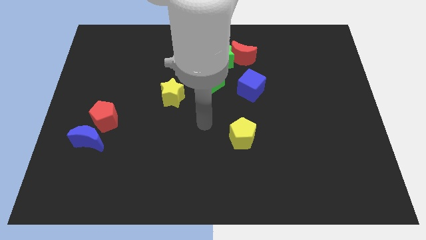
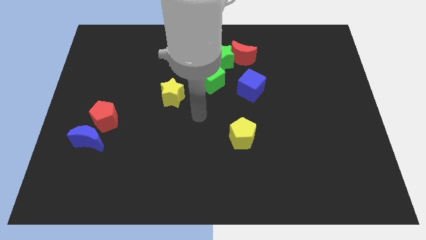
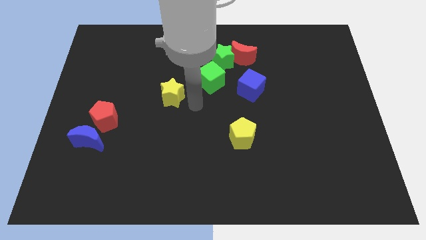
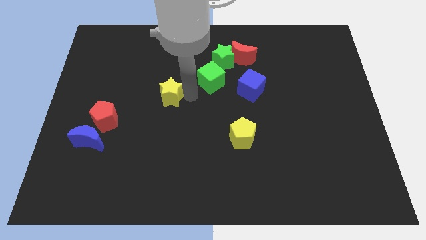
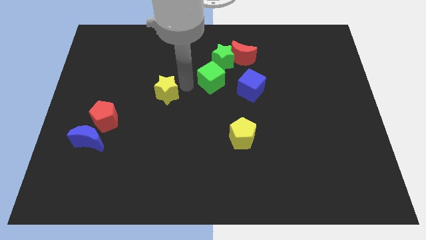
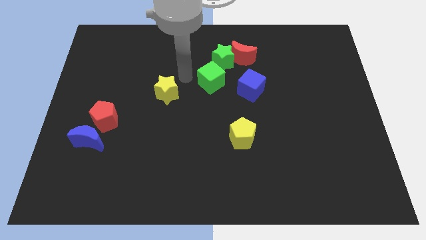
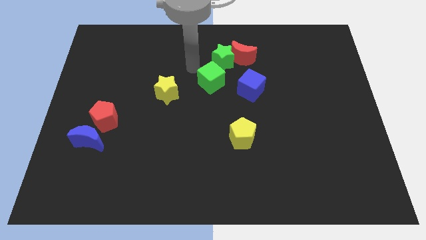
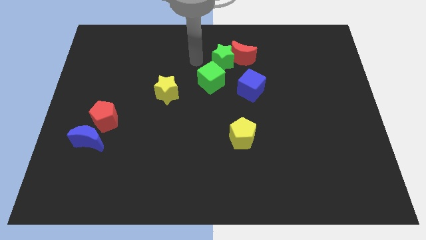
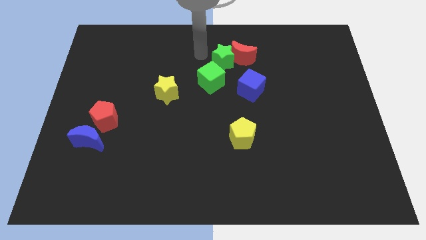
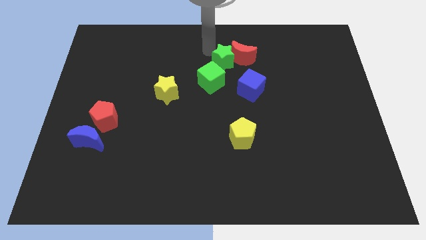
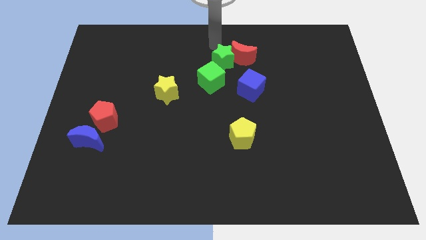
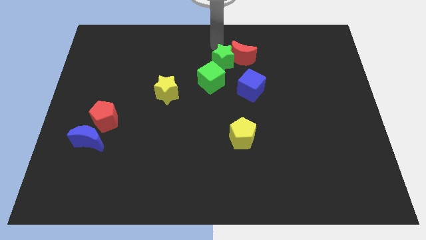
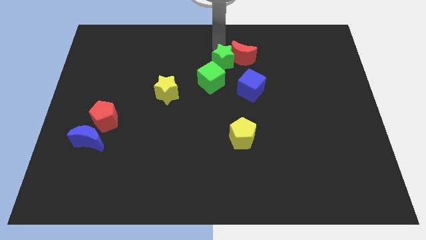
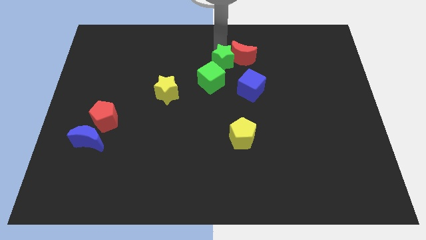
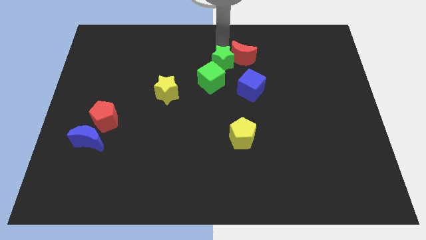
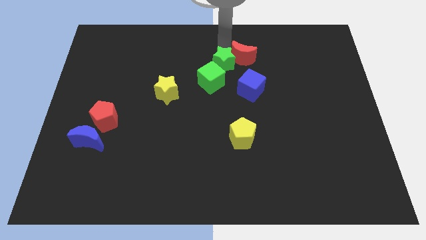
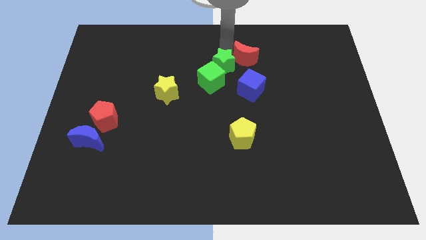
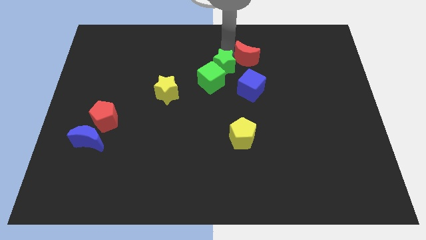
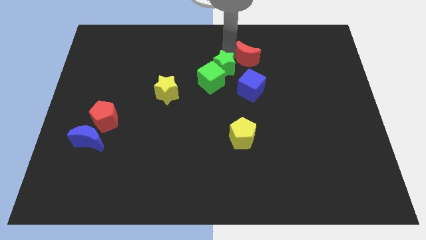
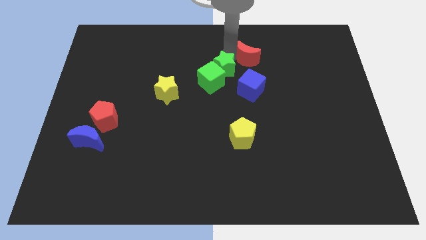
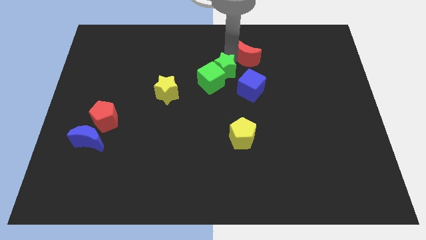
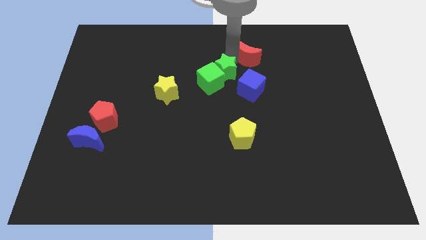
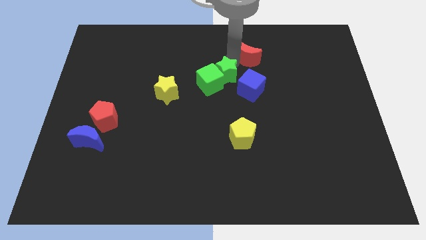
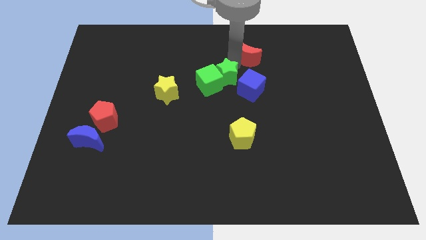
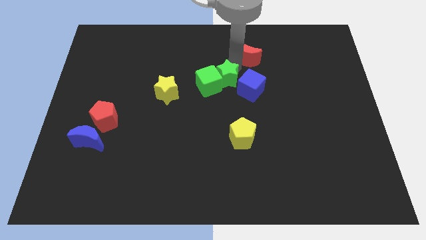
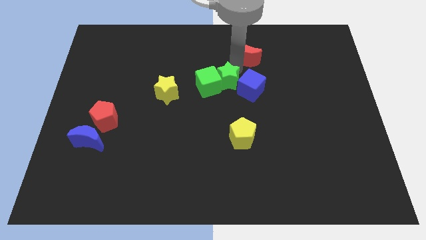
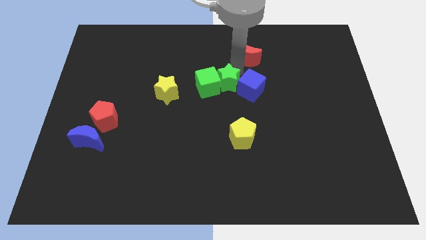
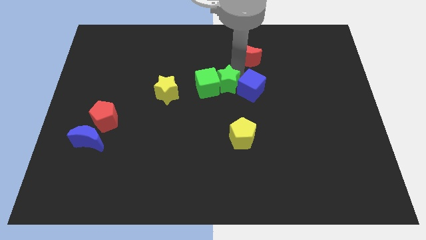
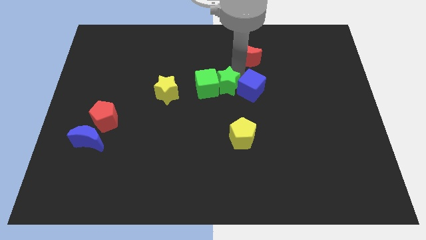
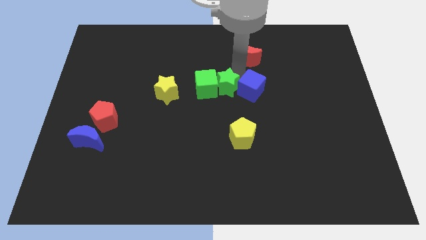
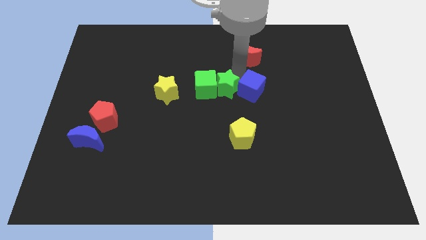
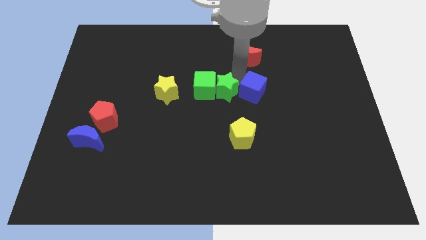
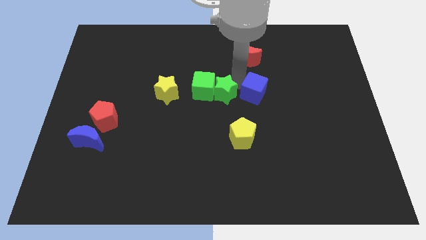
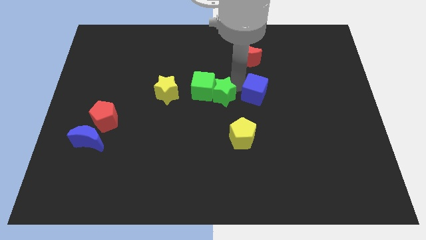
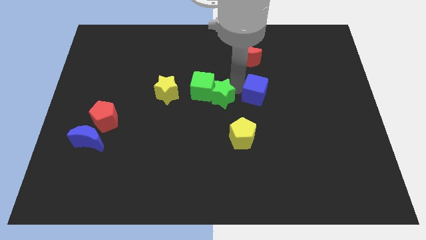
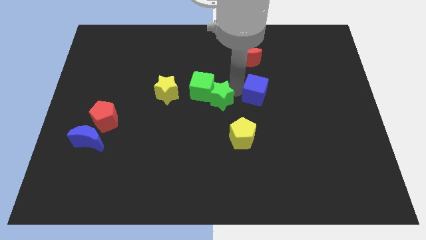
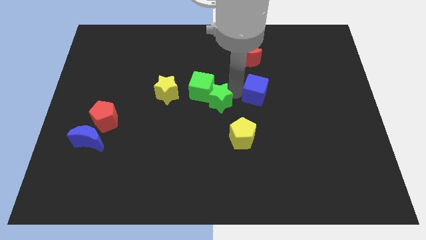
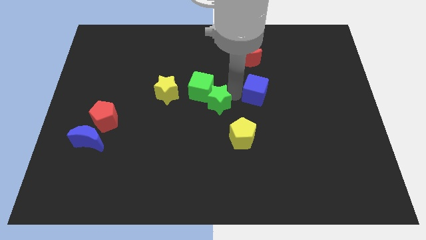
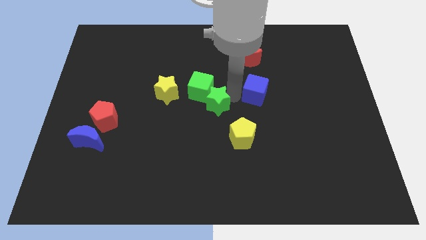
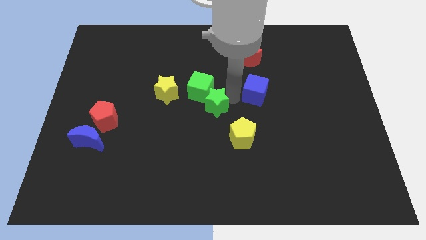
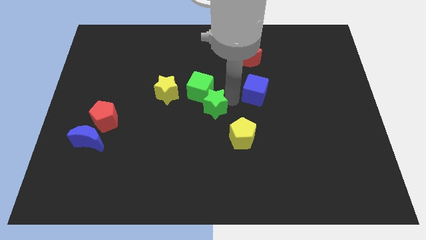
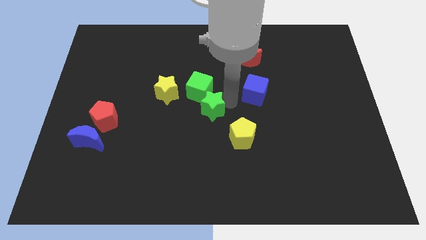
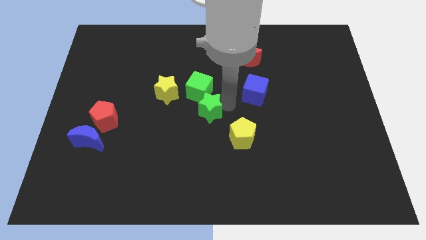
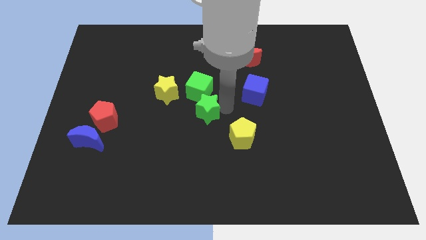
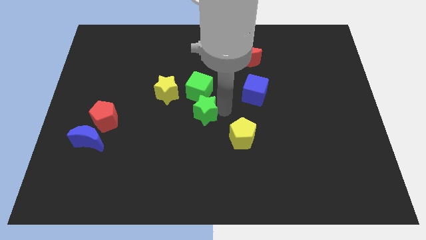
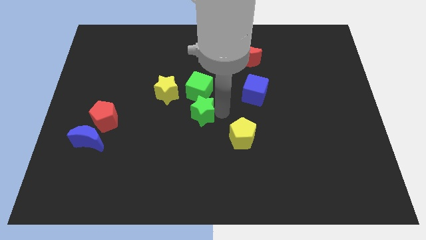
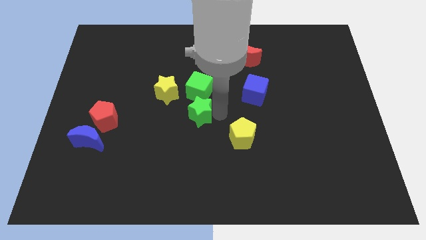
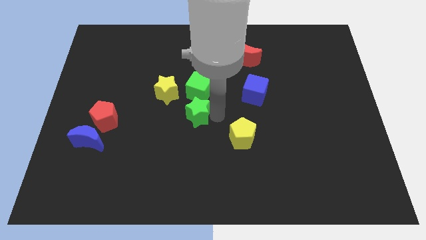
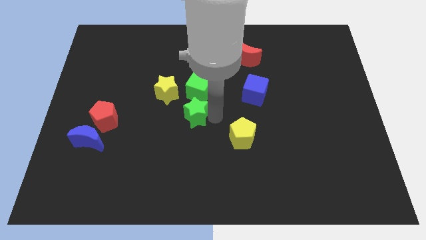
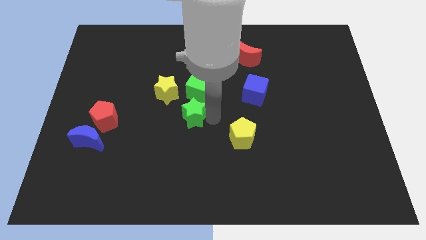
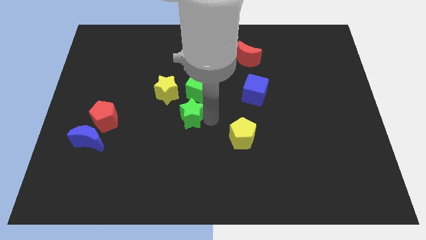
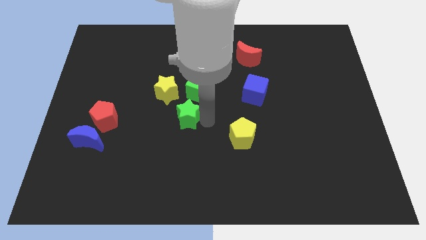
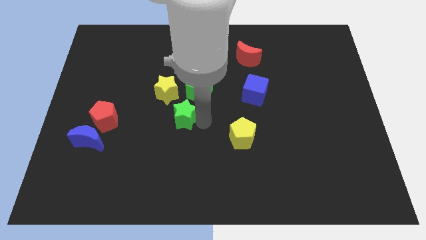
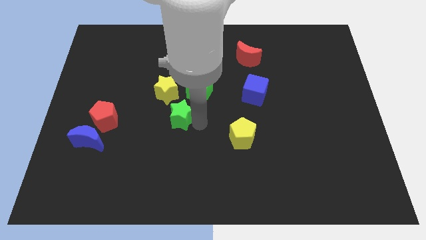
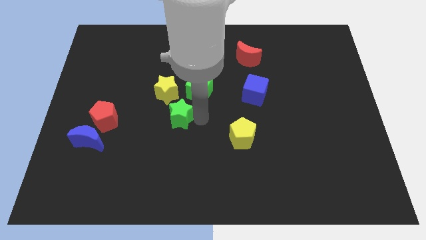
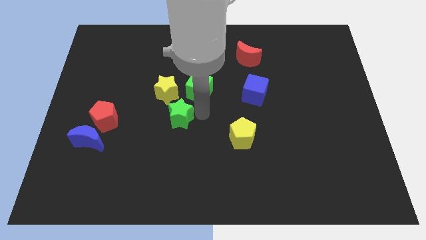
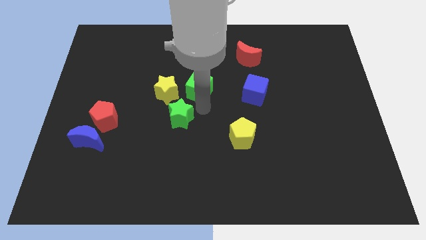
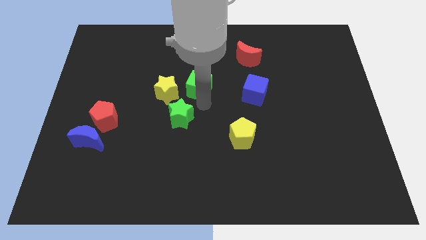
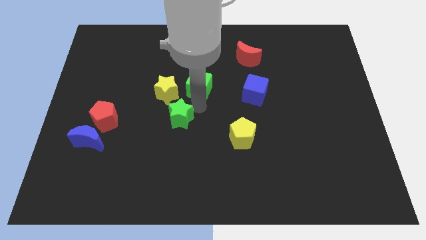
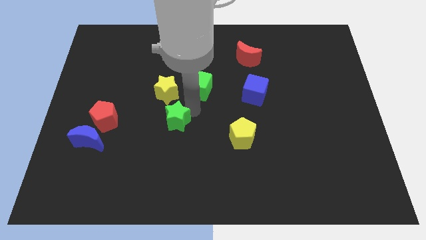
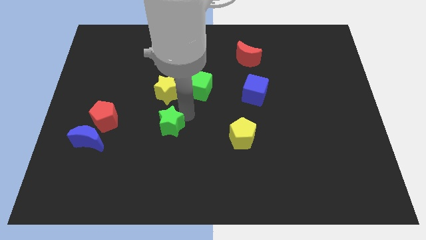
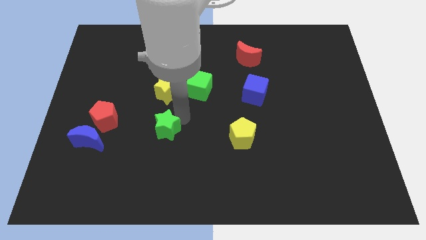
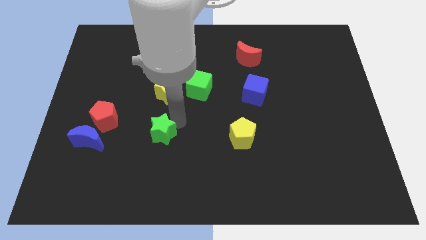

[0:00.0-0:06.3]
slide the green star to the right of the blue moon

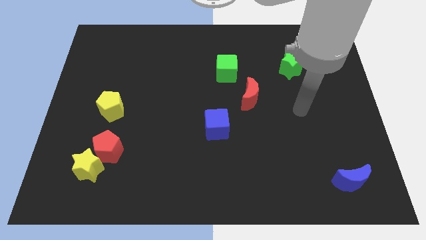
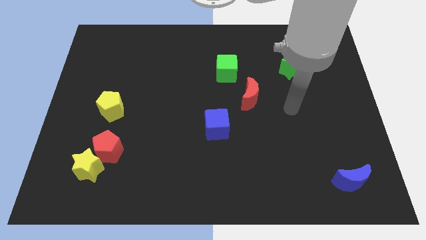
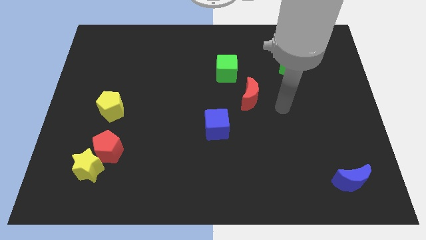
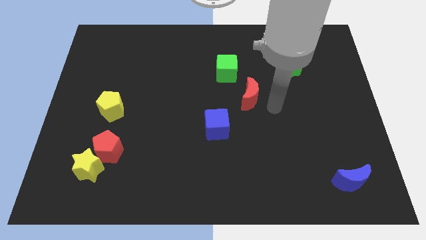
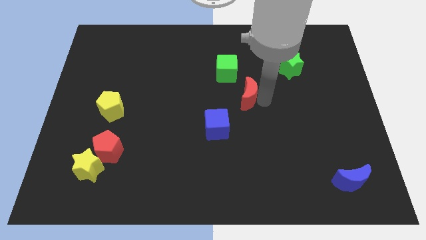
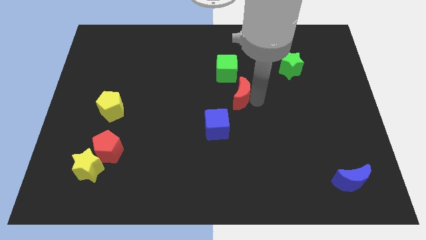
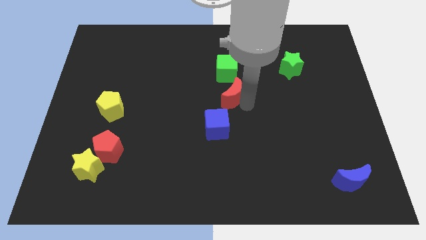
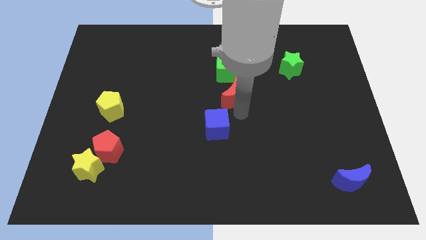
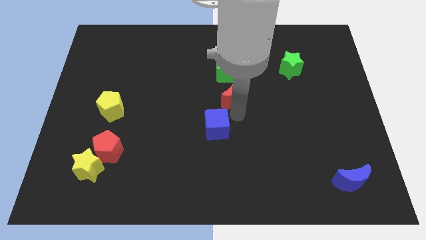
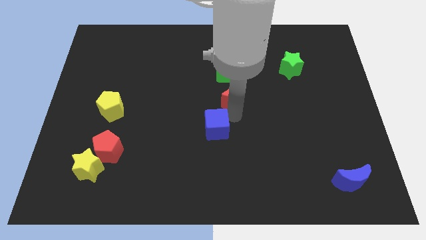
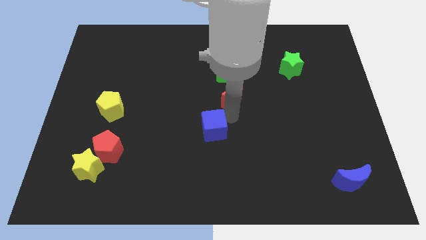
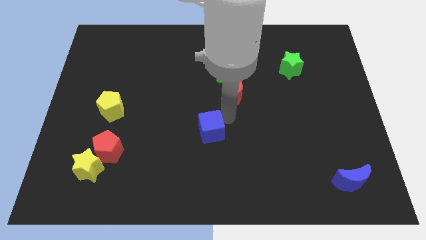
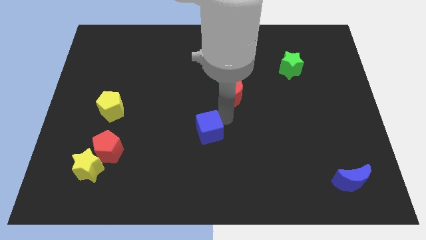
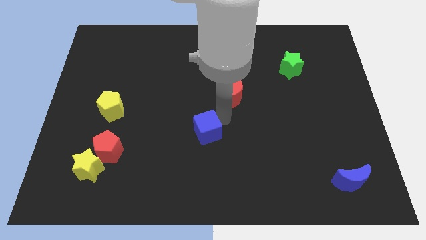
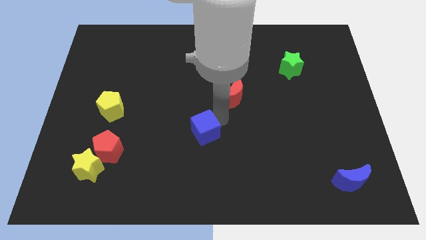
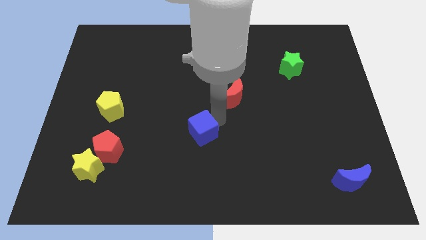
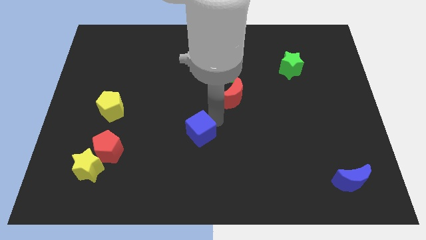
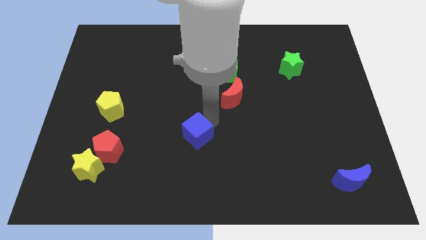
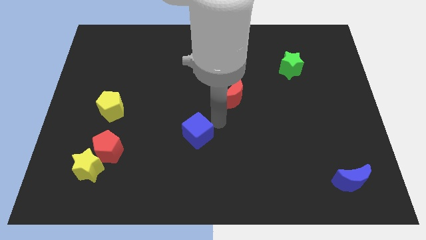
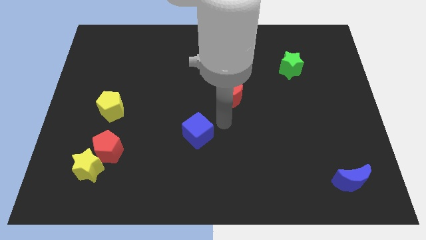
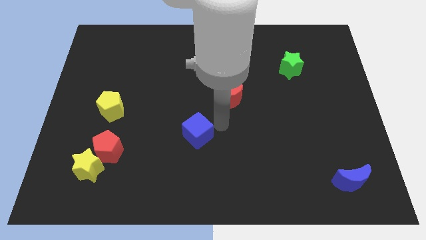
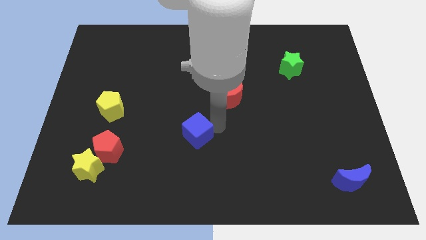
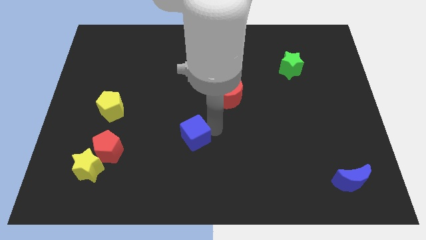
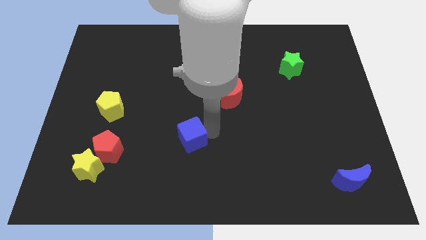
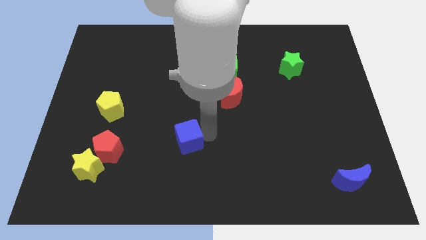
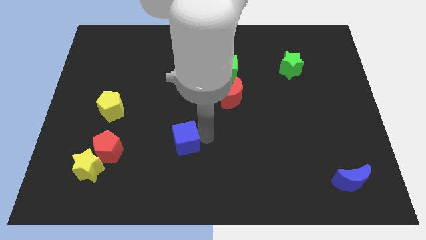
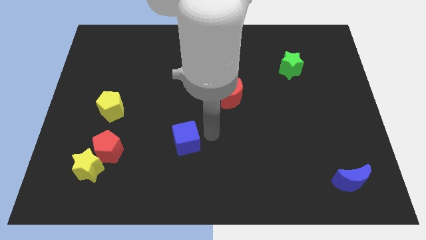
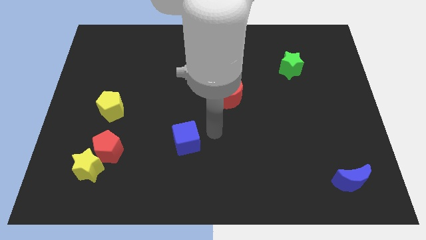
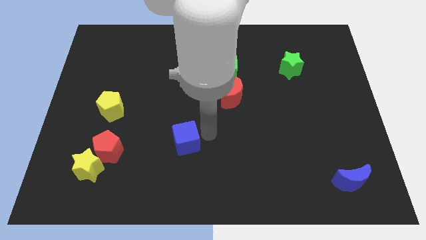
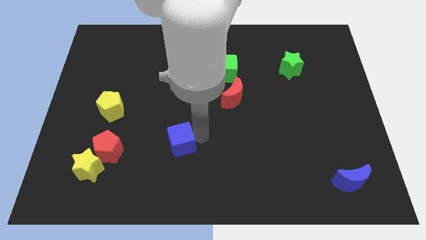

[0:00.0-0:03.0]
move the blue cube right of the red pentagon
